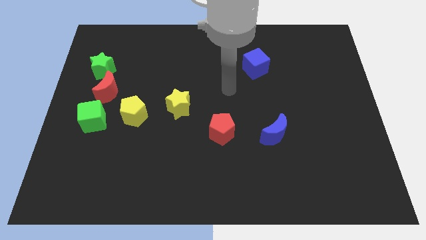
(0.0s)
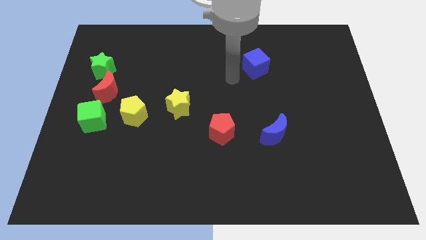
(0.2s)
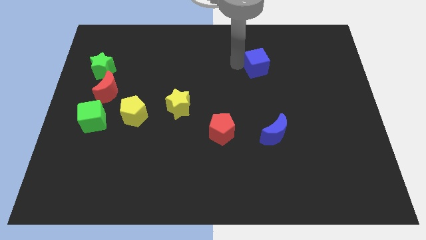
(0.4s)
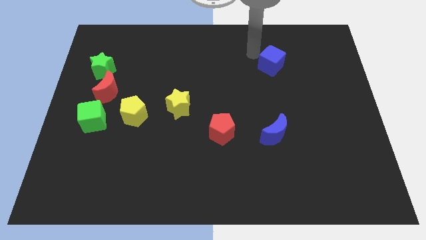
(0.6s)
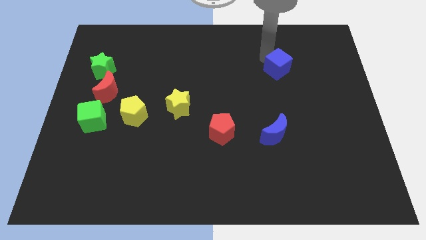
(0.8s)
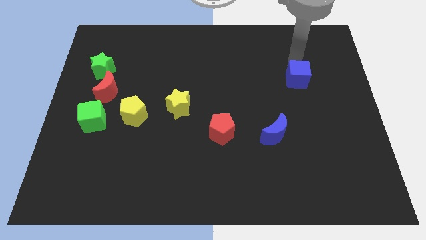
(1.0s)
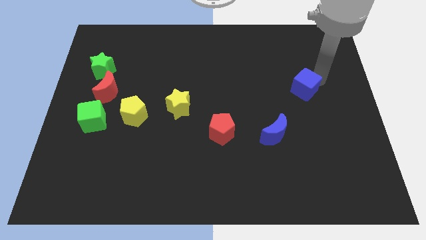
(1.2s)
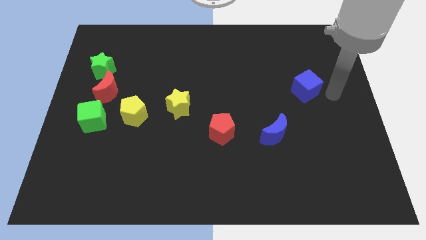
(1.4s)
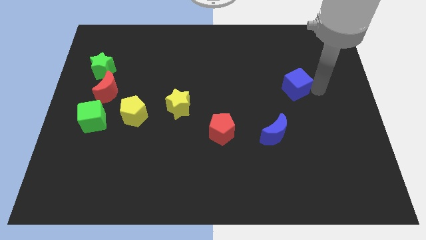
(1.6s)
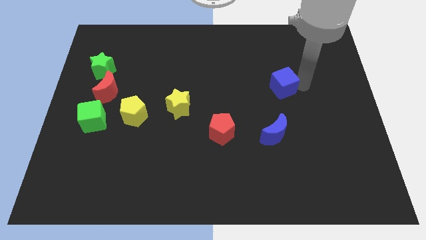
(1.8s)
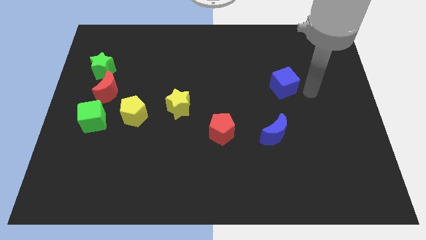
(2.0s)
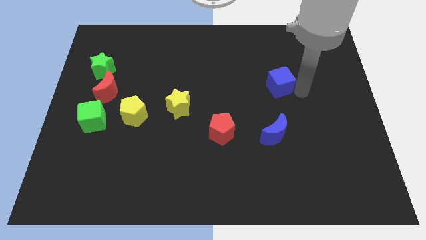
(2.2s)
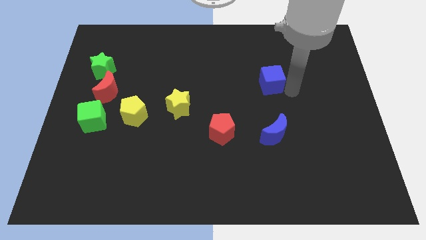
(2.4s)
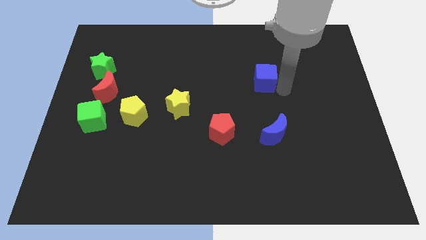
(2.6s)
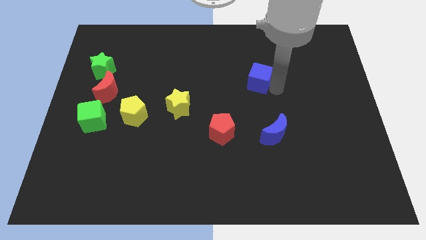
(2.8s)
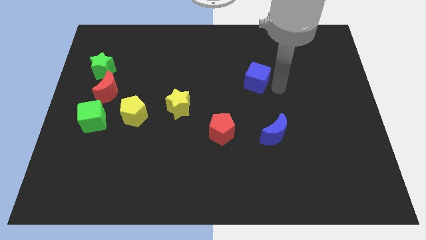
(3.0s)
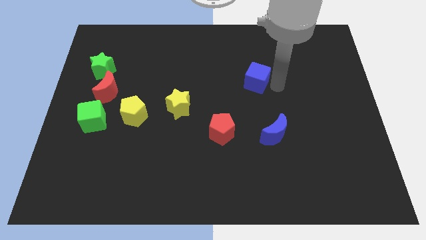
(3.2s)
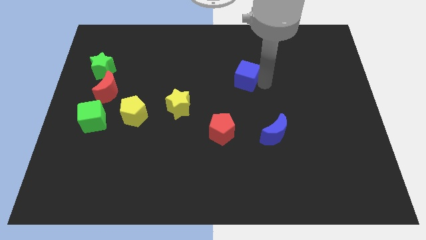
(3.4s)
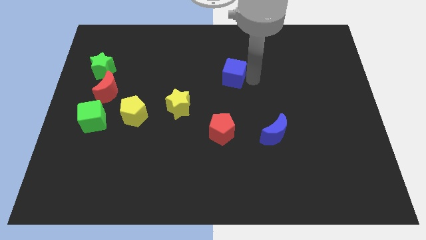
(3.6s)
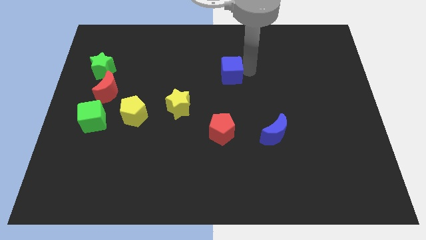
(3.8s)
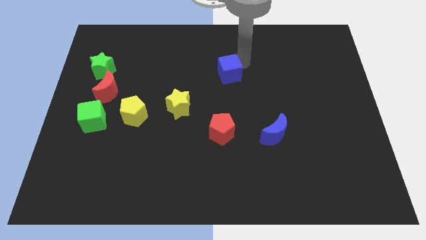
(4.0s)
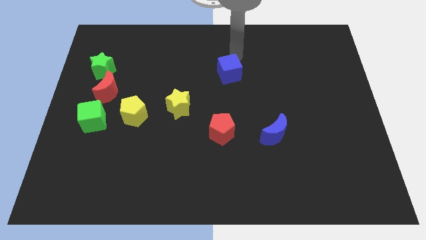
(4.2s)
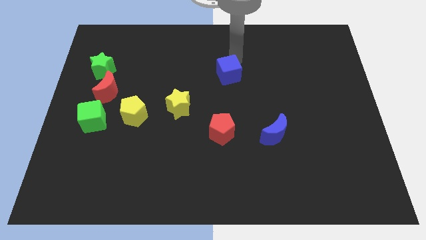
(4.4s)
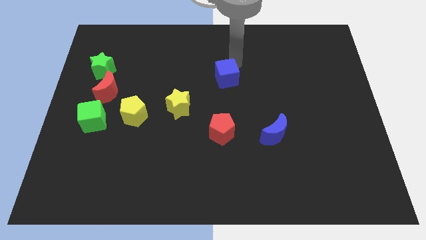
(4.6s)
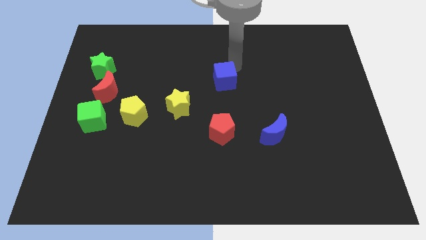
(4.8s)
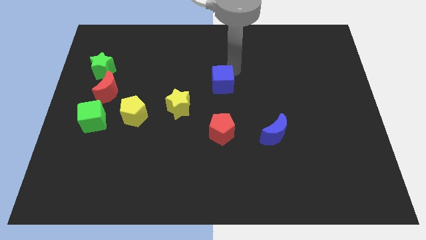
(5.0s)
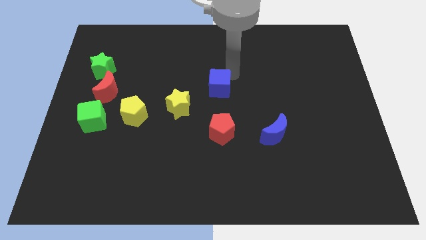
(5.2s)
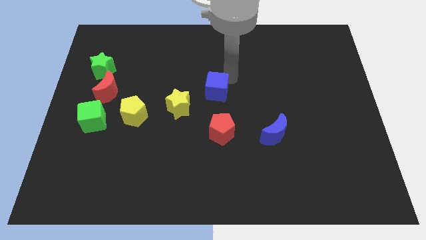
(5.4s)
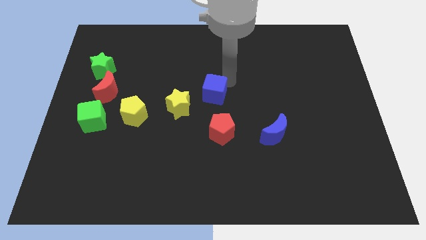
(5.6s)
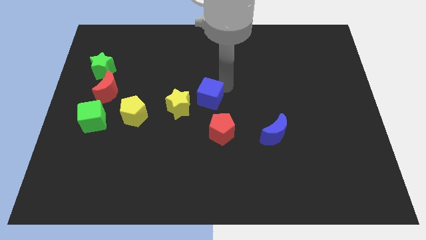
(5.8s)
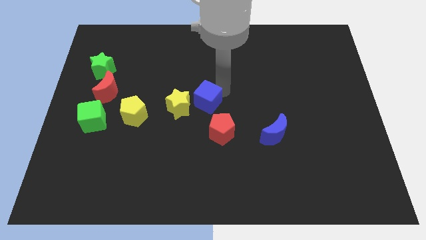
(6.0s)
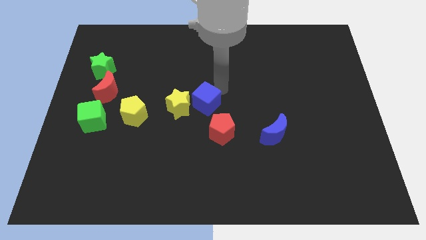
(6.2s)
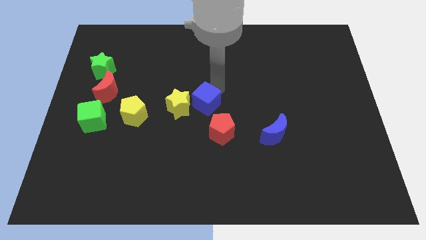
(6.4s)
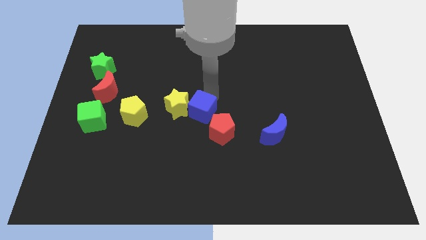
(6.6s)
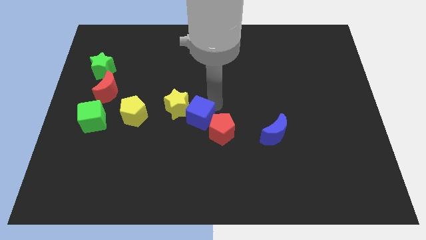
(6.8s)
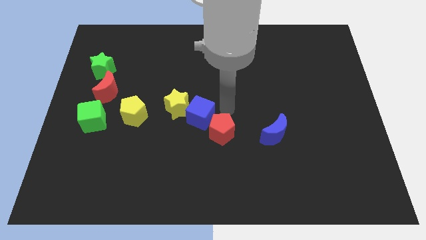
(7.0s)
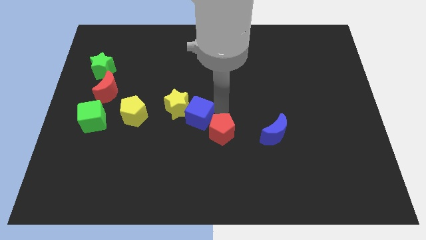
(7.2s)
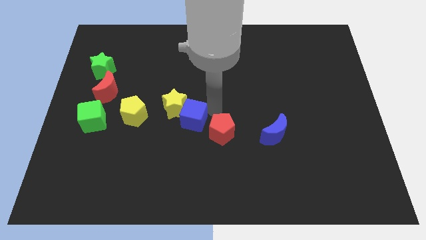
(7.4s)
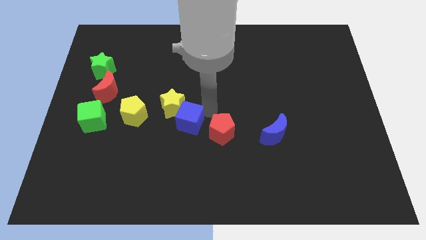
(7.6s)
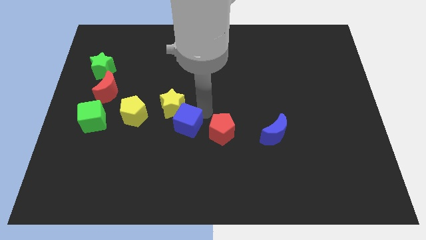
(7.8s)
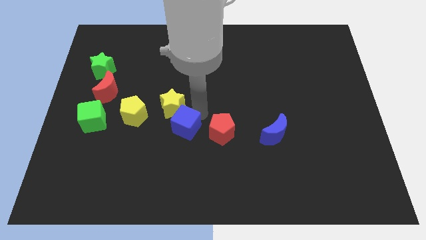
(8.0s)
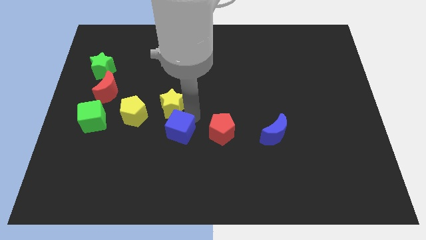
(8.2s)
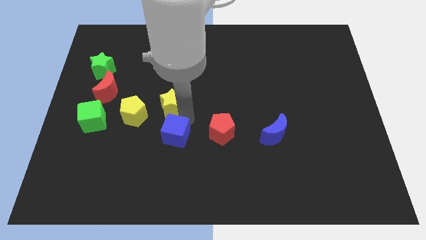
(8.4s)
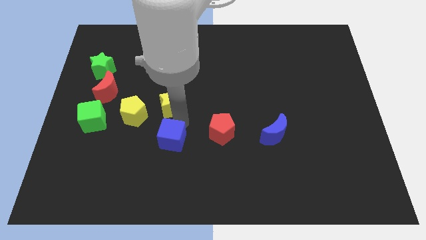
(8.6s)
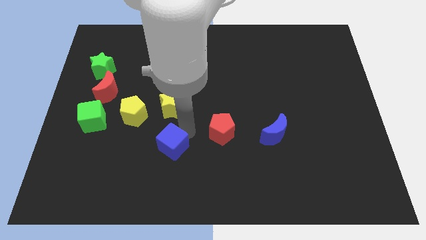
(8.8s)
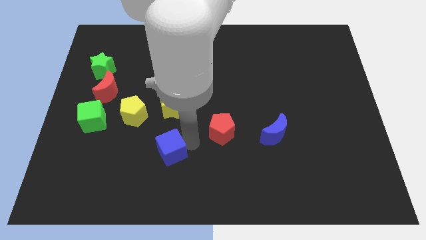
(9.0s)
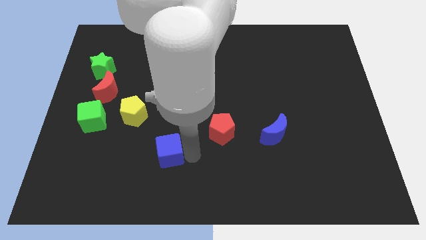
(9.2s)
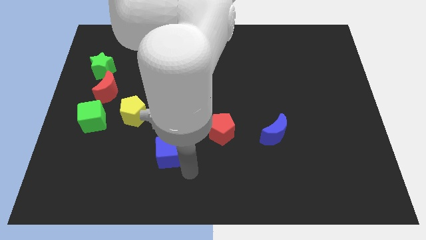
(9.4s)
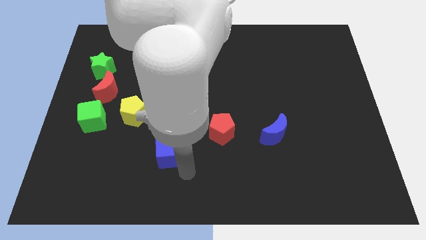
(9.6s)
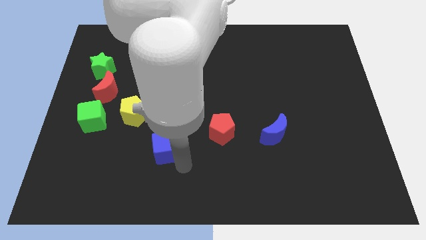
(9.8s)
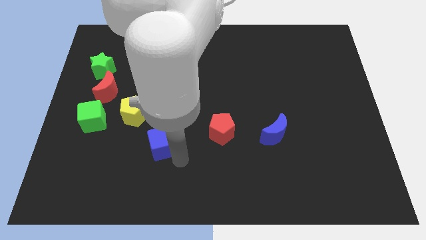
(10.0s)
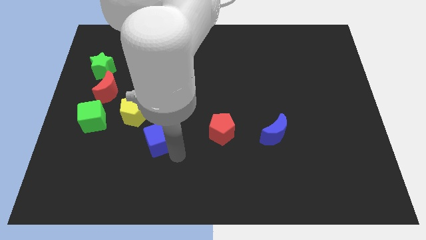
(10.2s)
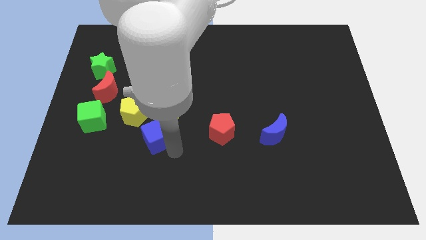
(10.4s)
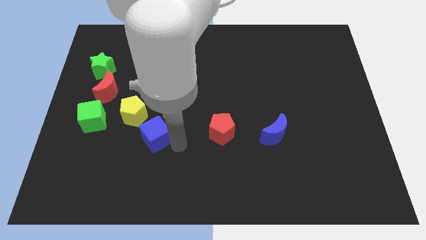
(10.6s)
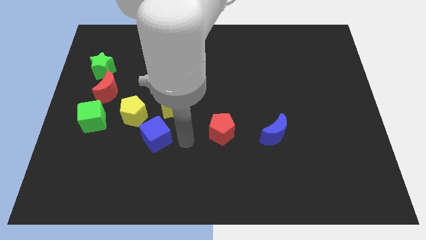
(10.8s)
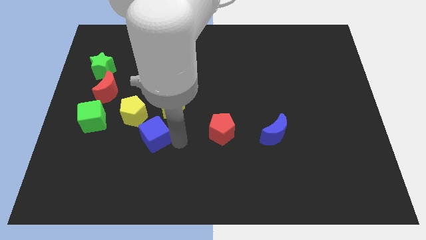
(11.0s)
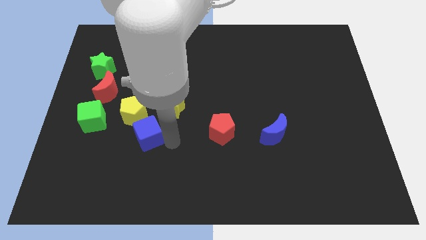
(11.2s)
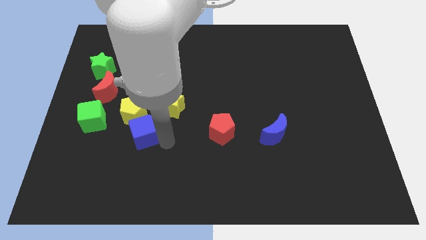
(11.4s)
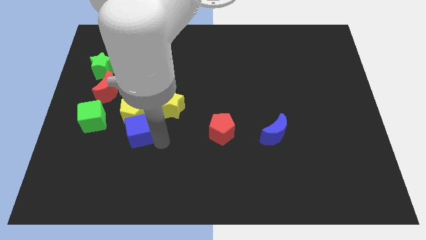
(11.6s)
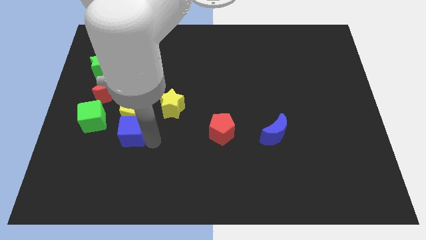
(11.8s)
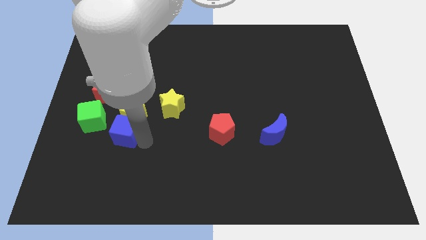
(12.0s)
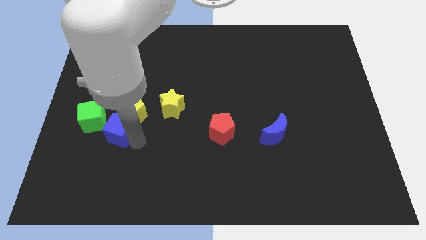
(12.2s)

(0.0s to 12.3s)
move the blue cube to the bottom of the red moon
